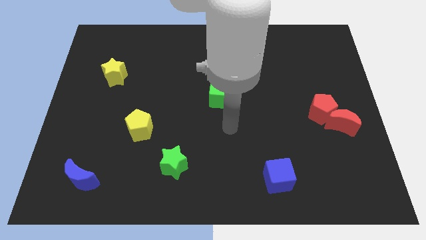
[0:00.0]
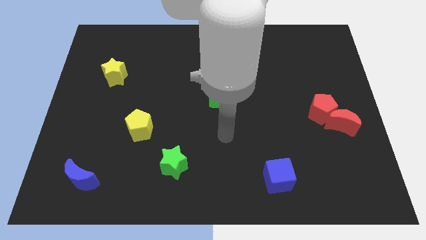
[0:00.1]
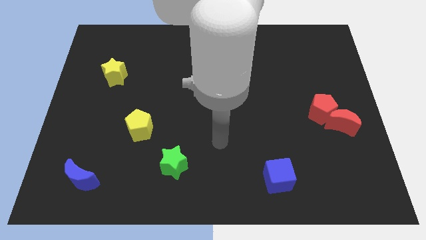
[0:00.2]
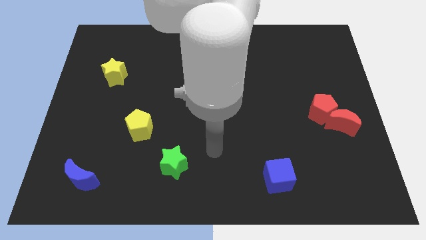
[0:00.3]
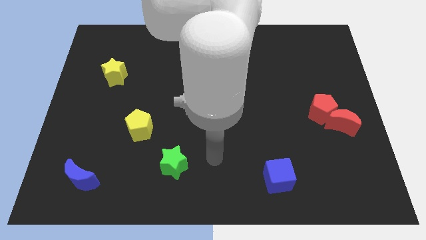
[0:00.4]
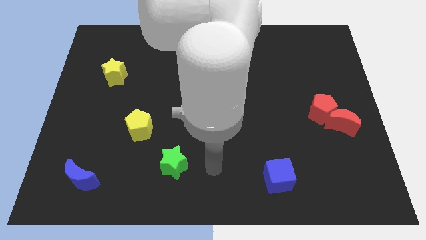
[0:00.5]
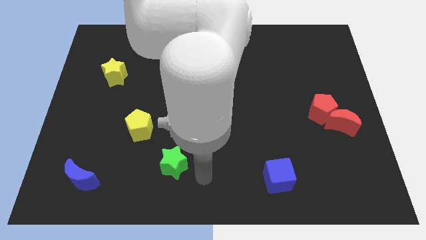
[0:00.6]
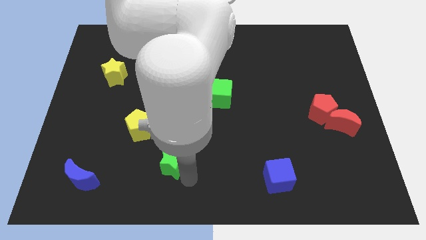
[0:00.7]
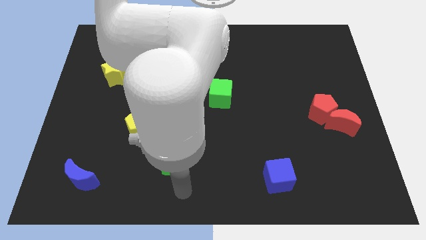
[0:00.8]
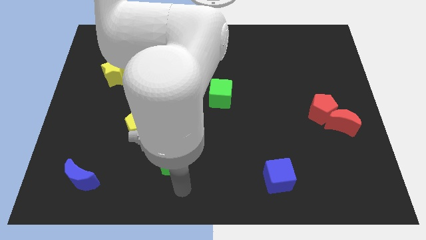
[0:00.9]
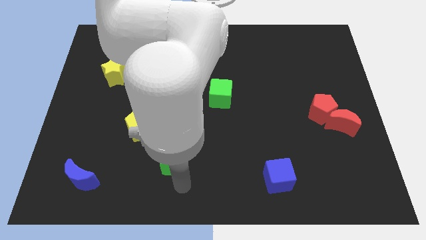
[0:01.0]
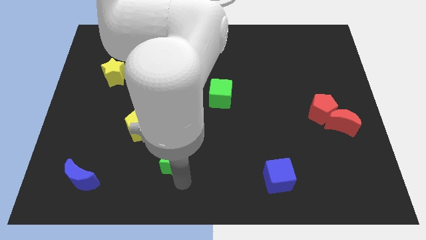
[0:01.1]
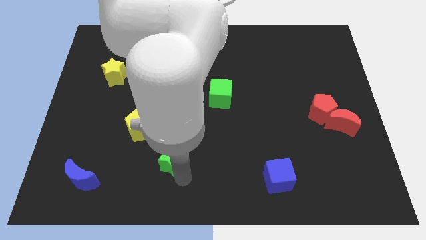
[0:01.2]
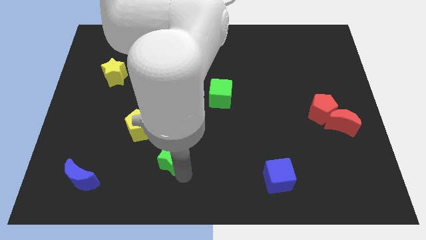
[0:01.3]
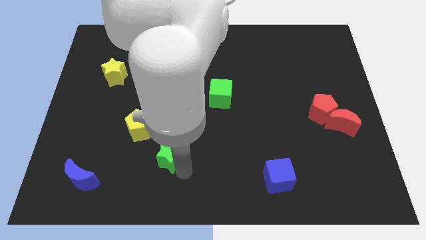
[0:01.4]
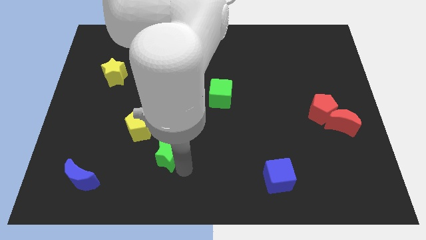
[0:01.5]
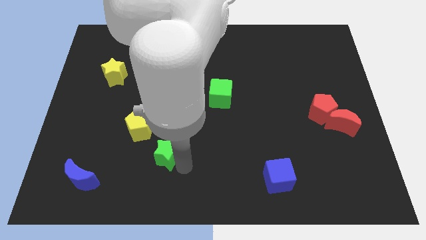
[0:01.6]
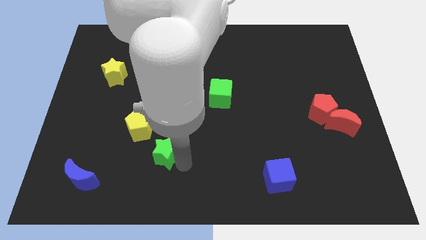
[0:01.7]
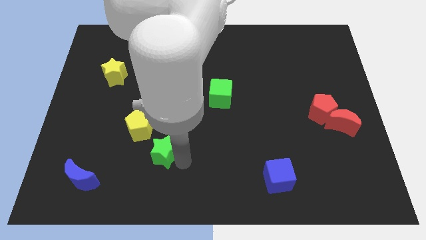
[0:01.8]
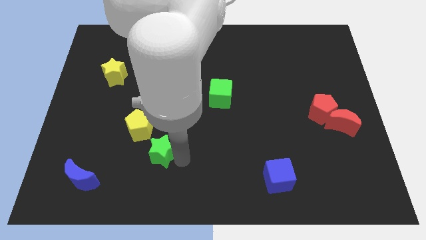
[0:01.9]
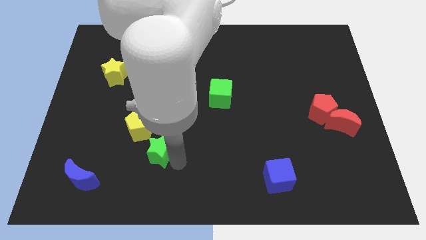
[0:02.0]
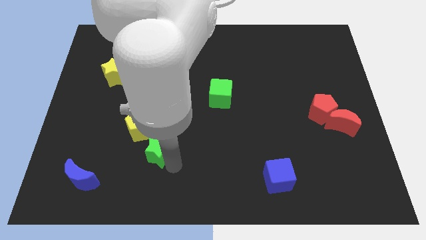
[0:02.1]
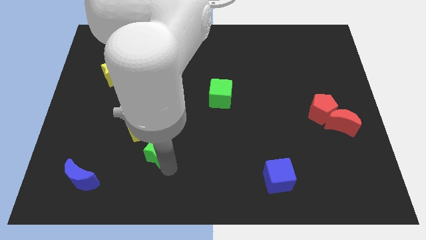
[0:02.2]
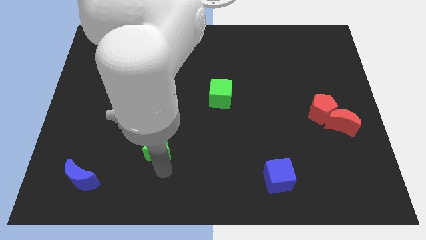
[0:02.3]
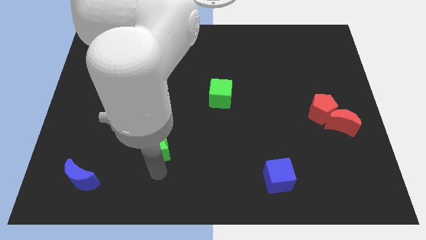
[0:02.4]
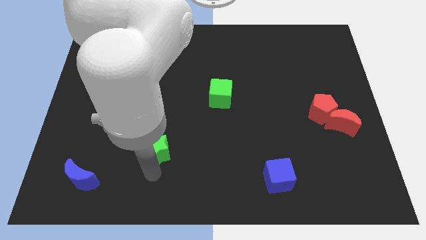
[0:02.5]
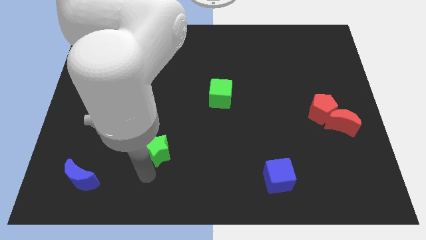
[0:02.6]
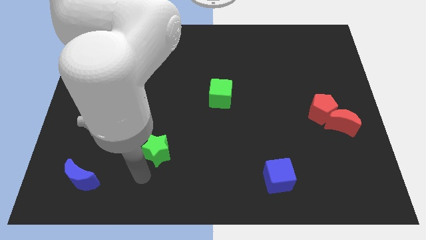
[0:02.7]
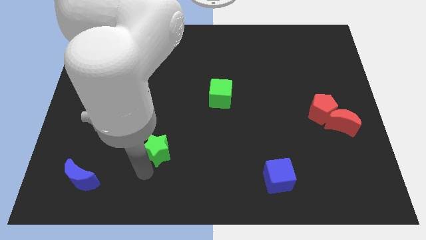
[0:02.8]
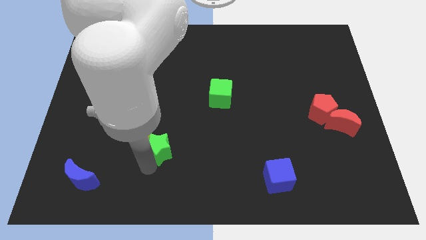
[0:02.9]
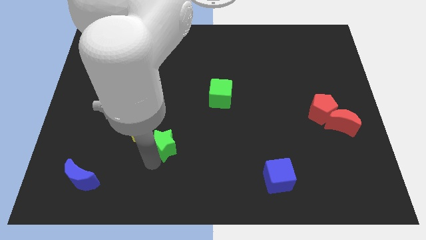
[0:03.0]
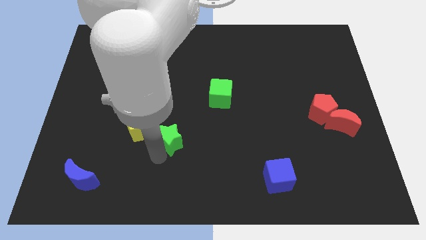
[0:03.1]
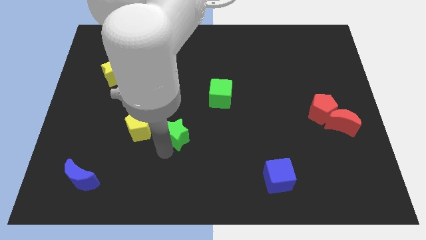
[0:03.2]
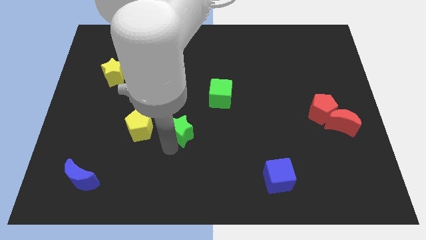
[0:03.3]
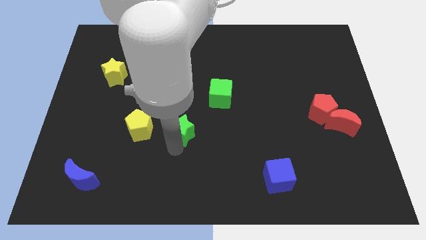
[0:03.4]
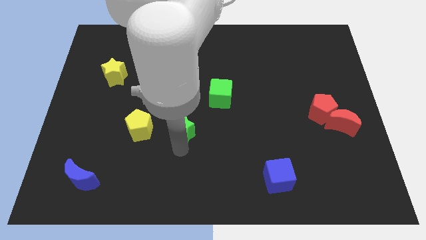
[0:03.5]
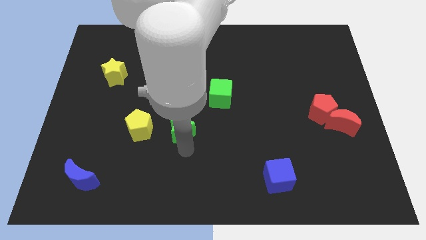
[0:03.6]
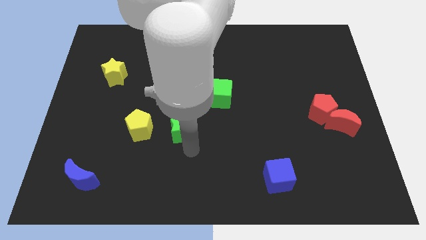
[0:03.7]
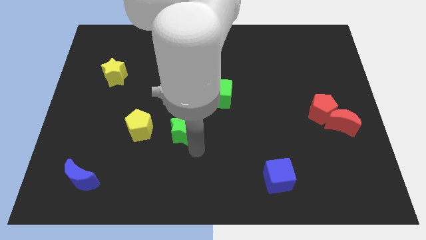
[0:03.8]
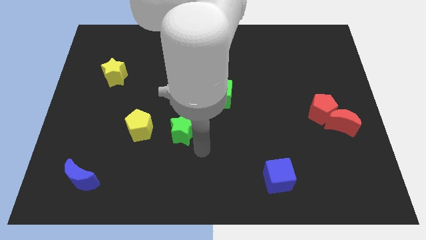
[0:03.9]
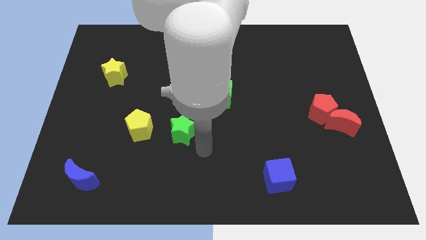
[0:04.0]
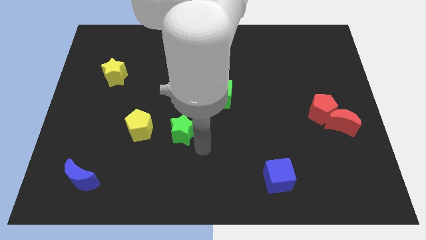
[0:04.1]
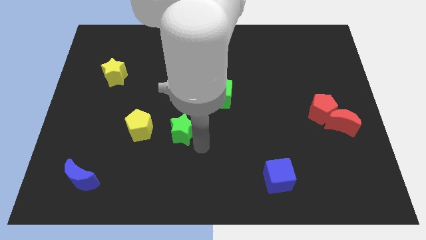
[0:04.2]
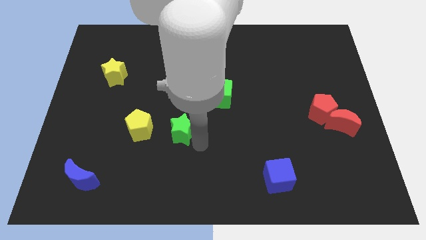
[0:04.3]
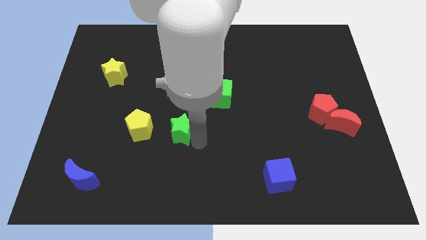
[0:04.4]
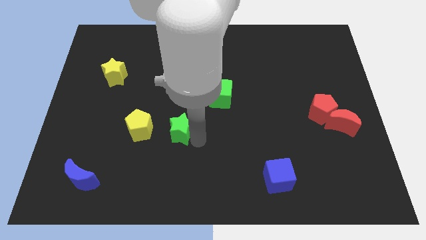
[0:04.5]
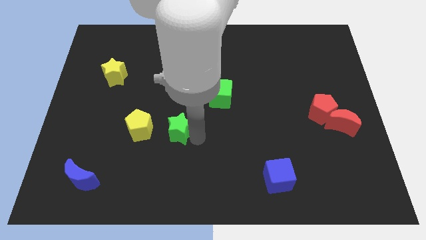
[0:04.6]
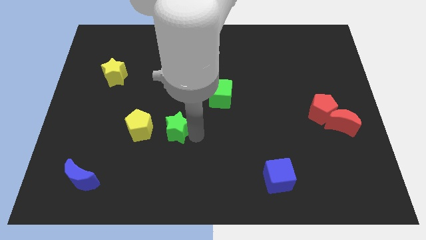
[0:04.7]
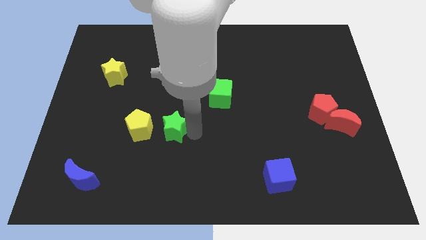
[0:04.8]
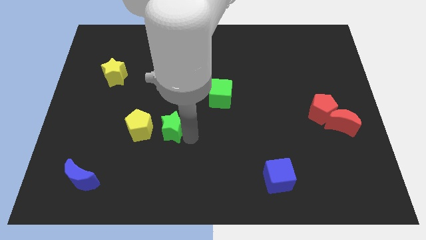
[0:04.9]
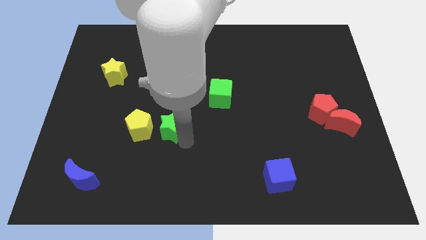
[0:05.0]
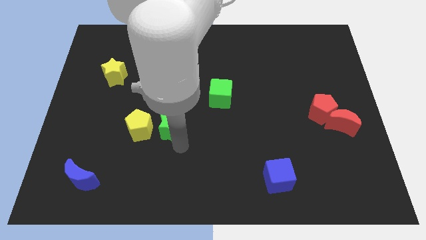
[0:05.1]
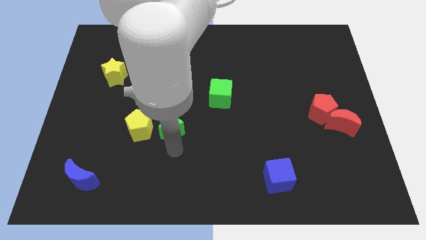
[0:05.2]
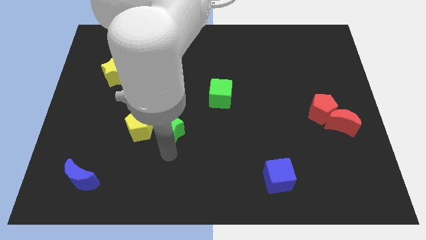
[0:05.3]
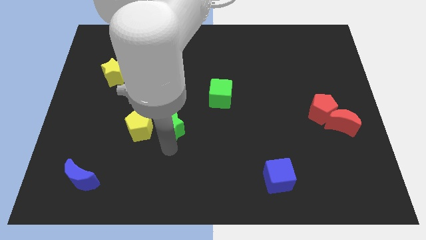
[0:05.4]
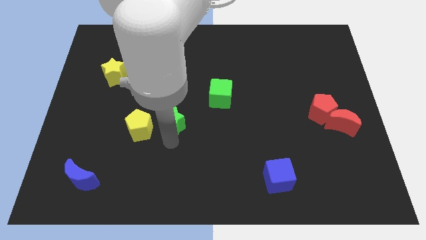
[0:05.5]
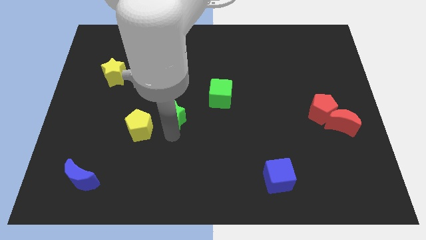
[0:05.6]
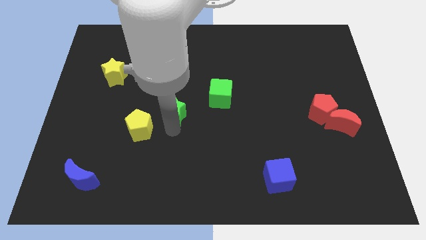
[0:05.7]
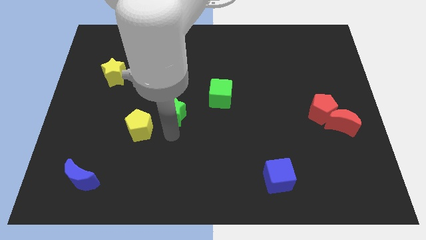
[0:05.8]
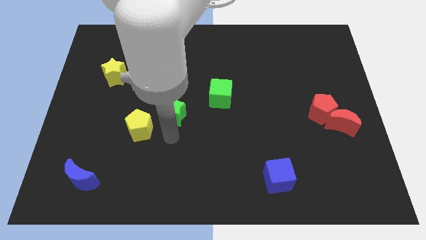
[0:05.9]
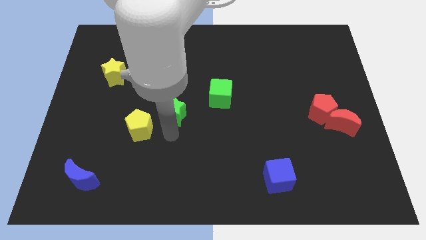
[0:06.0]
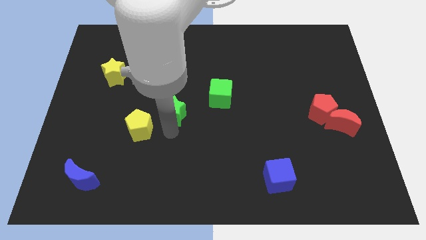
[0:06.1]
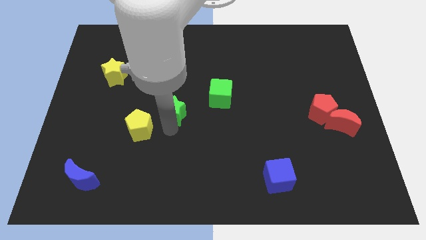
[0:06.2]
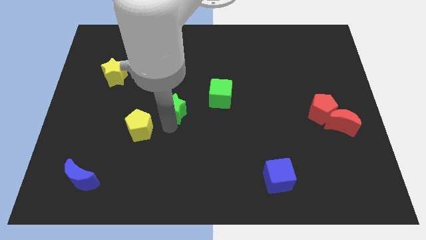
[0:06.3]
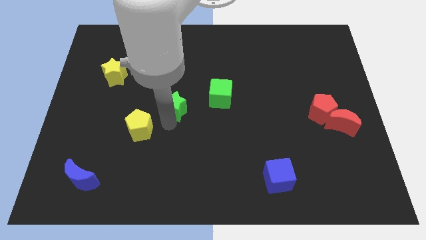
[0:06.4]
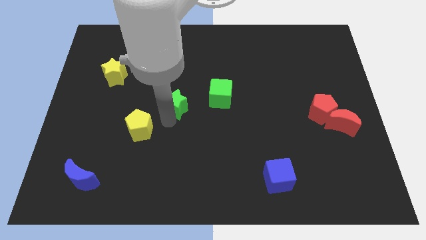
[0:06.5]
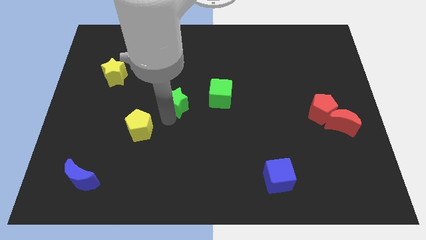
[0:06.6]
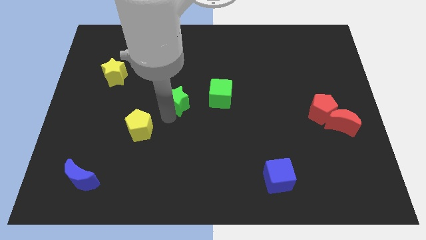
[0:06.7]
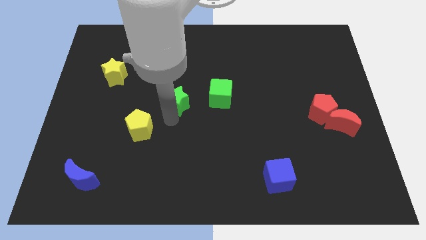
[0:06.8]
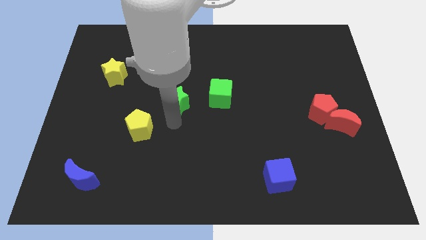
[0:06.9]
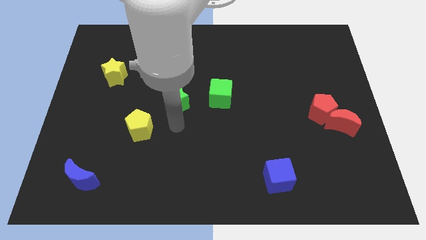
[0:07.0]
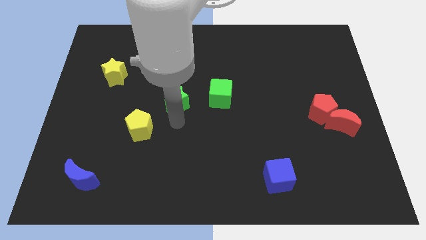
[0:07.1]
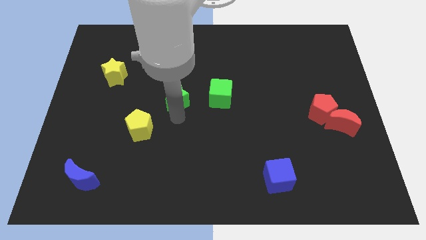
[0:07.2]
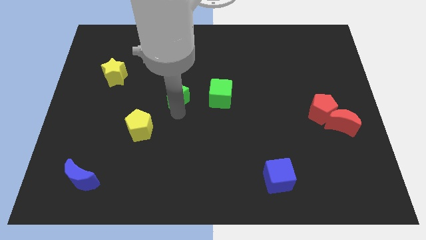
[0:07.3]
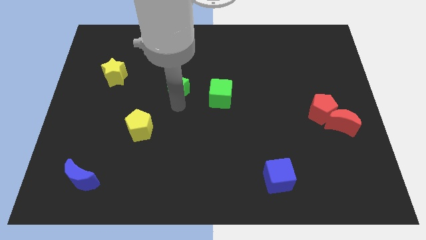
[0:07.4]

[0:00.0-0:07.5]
slide the green star up
